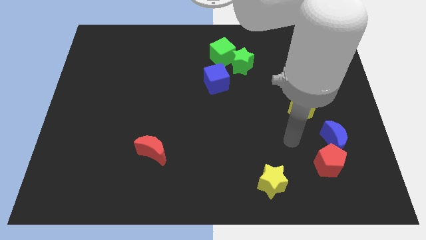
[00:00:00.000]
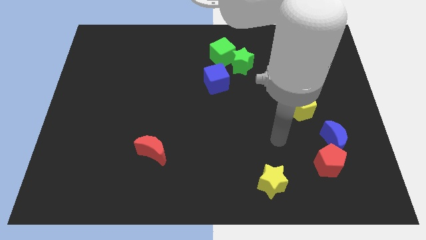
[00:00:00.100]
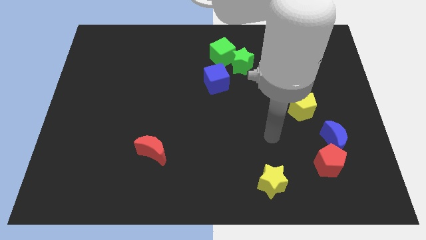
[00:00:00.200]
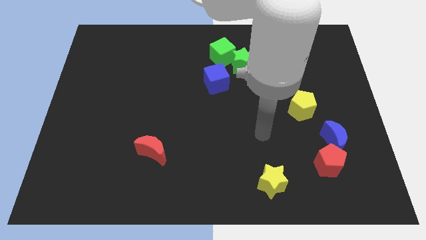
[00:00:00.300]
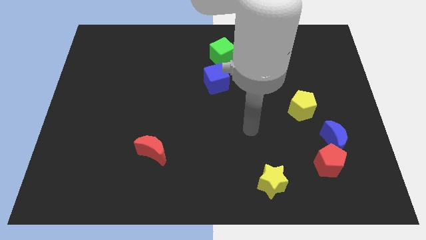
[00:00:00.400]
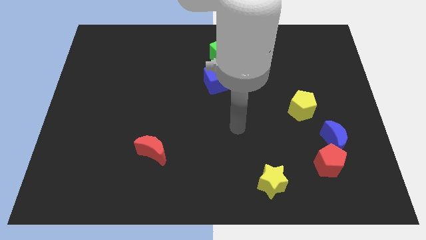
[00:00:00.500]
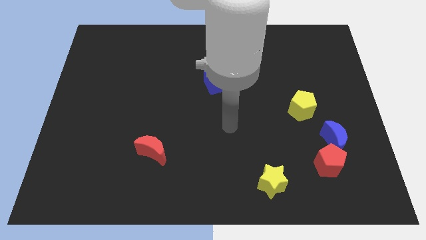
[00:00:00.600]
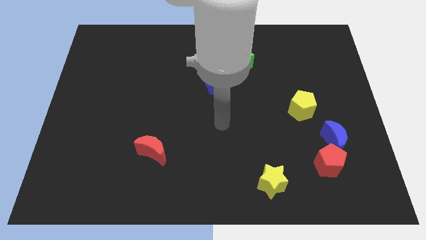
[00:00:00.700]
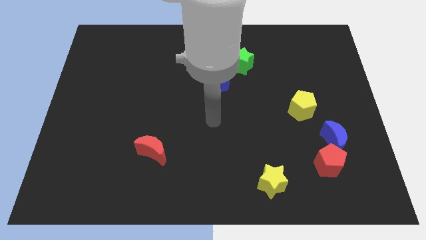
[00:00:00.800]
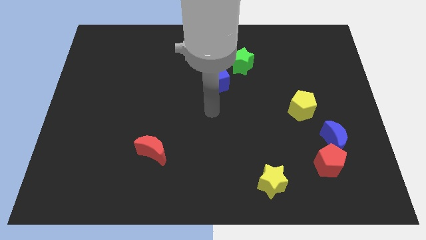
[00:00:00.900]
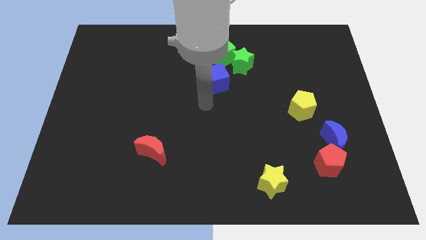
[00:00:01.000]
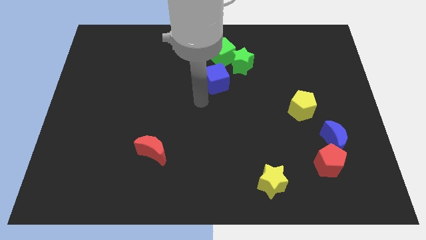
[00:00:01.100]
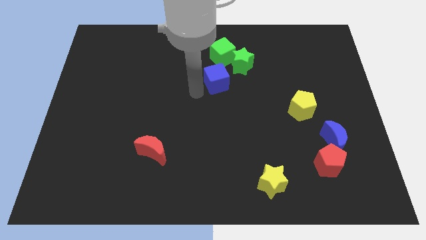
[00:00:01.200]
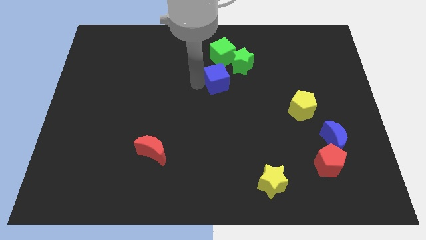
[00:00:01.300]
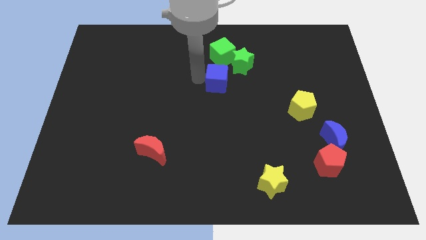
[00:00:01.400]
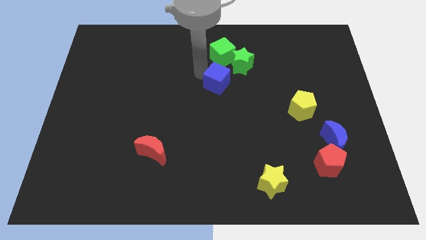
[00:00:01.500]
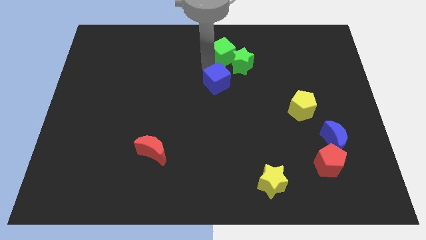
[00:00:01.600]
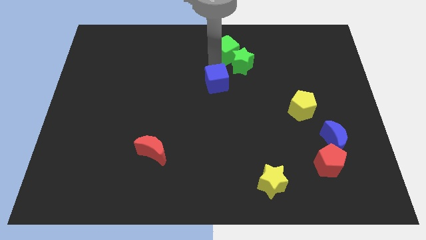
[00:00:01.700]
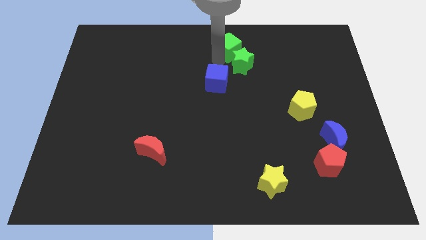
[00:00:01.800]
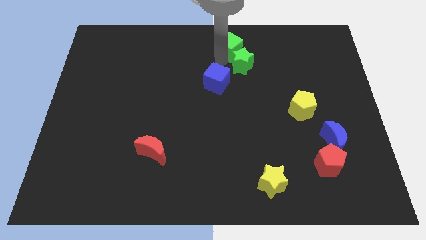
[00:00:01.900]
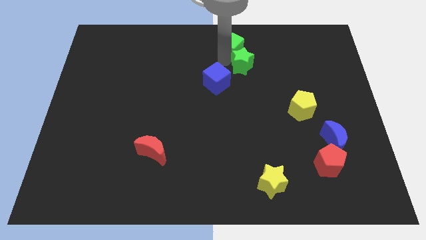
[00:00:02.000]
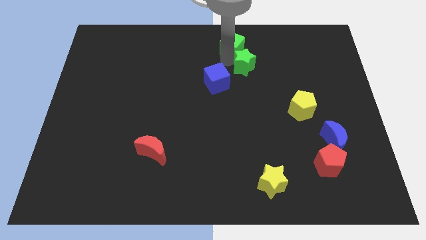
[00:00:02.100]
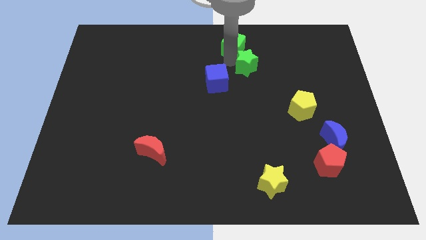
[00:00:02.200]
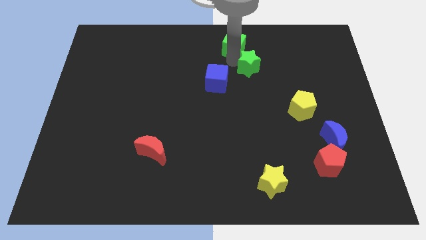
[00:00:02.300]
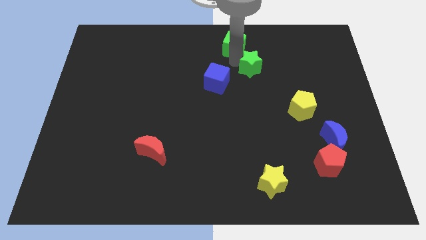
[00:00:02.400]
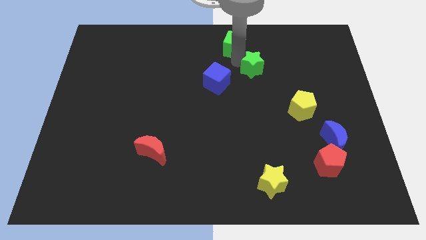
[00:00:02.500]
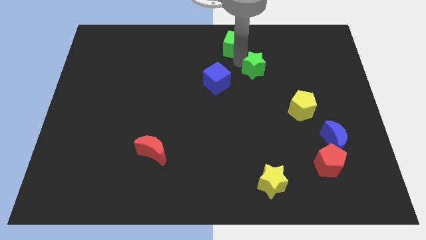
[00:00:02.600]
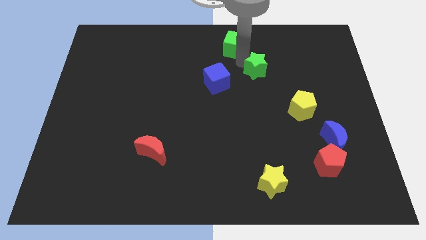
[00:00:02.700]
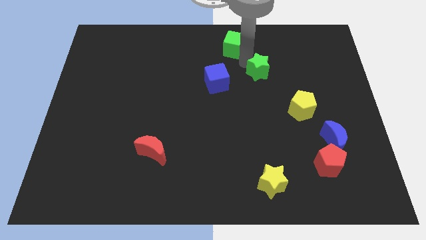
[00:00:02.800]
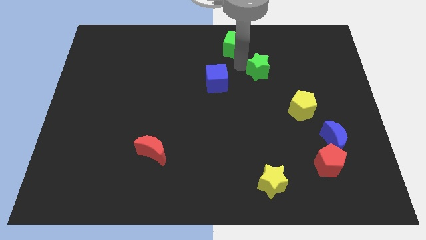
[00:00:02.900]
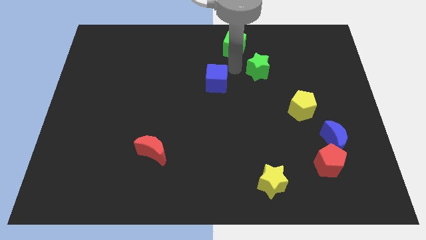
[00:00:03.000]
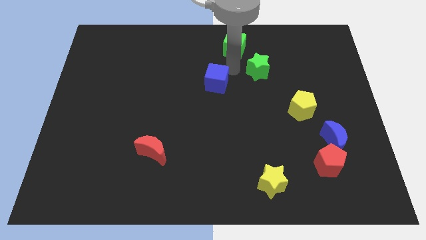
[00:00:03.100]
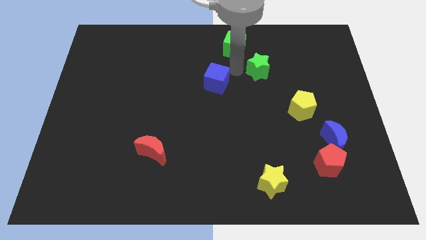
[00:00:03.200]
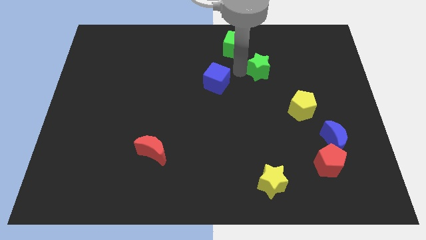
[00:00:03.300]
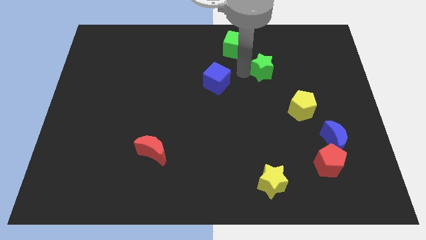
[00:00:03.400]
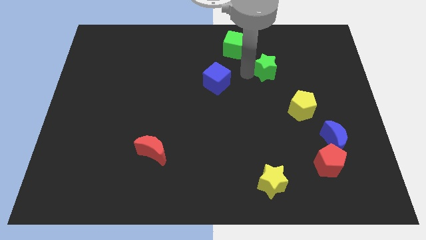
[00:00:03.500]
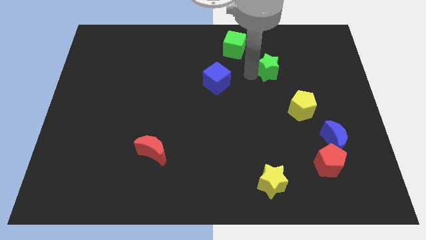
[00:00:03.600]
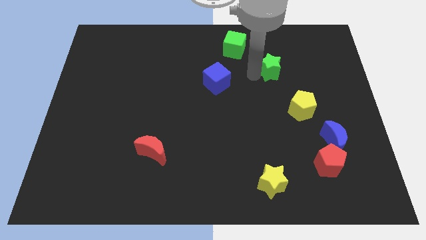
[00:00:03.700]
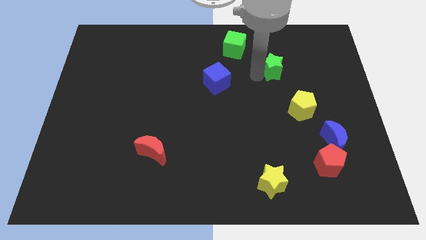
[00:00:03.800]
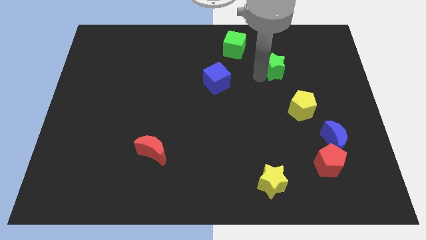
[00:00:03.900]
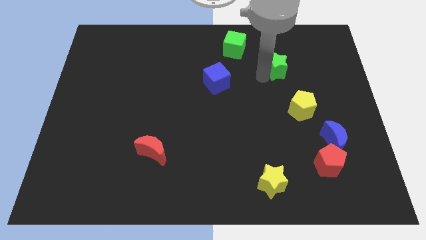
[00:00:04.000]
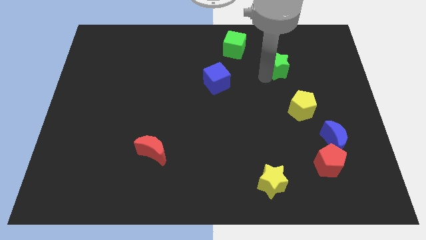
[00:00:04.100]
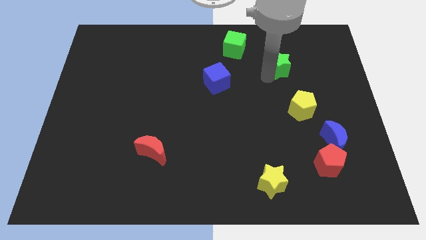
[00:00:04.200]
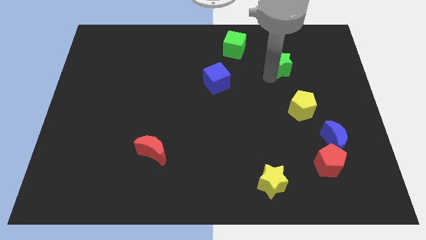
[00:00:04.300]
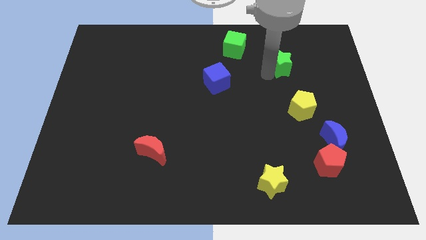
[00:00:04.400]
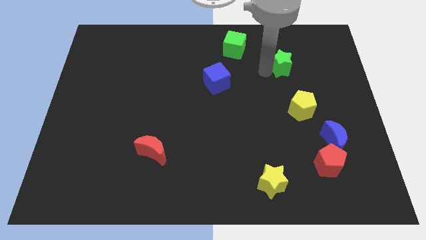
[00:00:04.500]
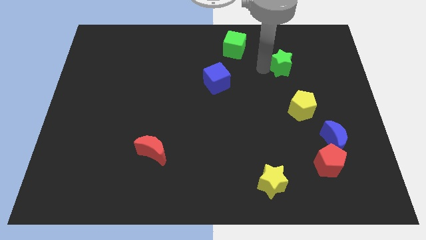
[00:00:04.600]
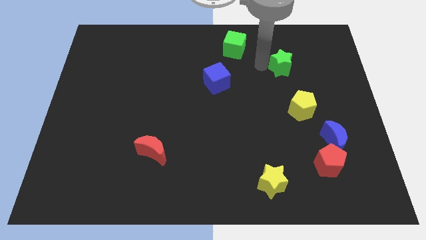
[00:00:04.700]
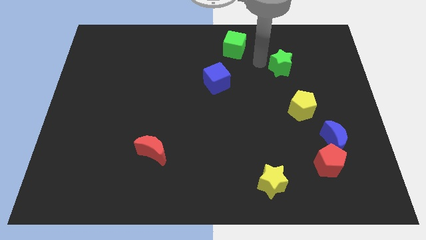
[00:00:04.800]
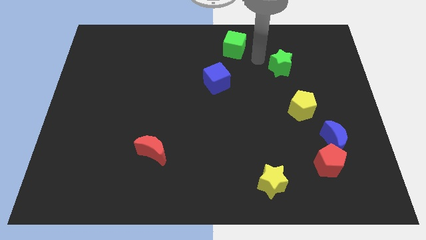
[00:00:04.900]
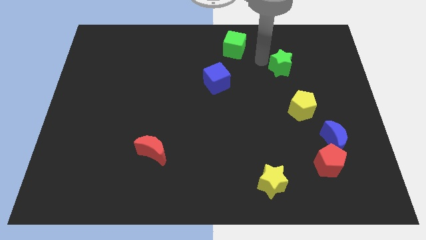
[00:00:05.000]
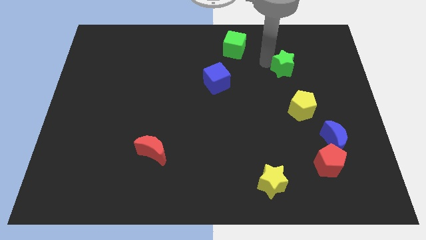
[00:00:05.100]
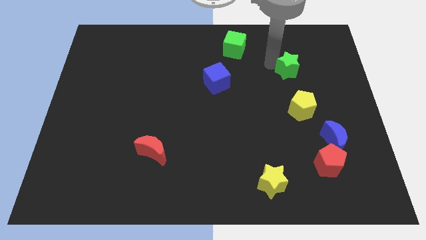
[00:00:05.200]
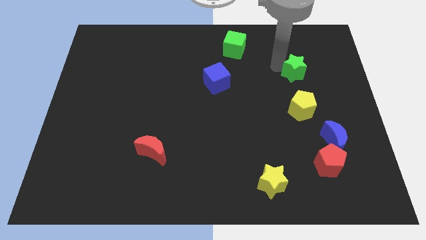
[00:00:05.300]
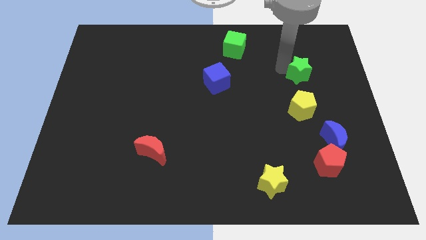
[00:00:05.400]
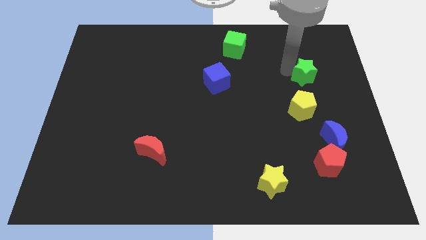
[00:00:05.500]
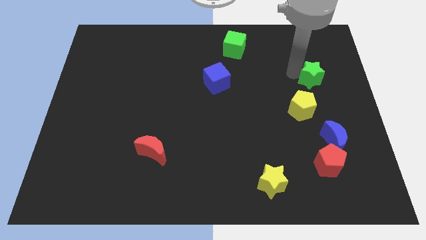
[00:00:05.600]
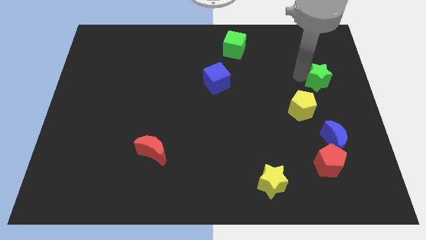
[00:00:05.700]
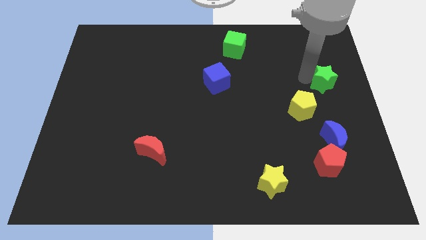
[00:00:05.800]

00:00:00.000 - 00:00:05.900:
move the green star to the right side

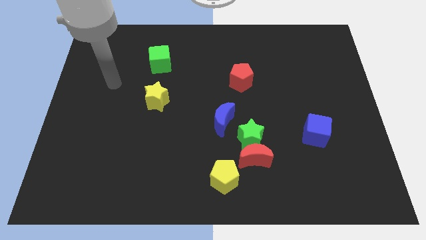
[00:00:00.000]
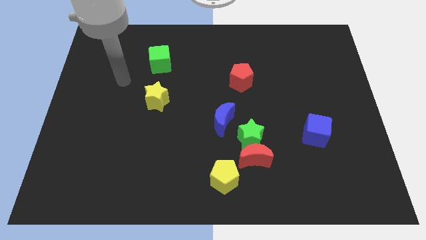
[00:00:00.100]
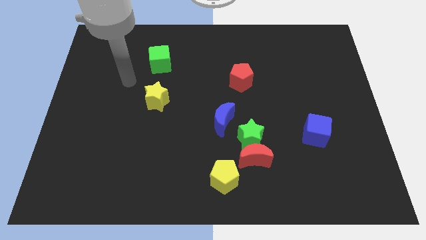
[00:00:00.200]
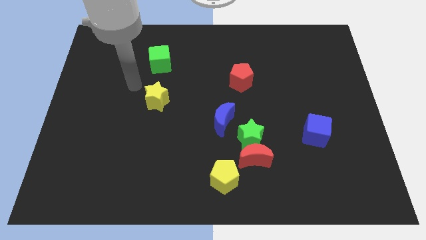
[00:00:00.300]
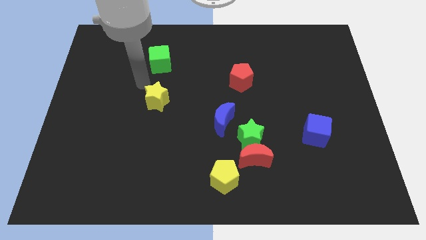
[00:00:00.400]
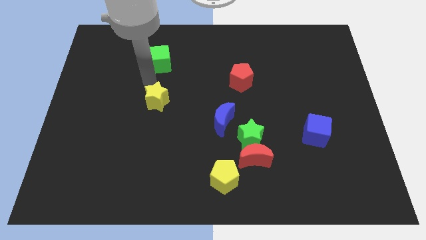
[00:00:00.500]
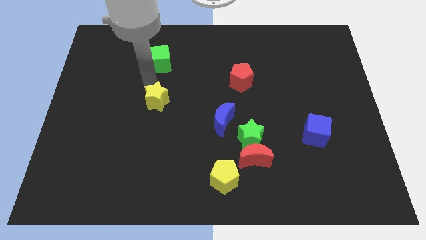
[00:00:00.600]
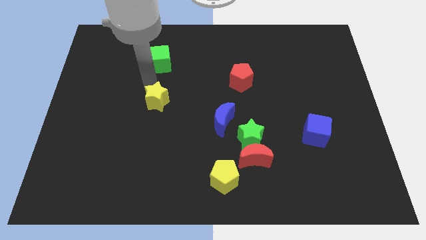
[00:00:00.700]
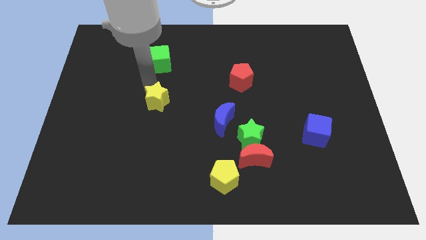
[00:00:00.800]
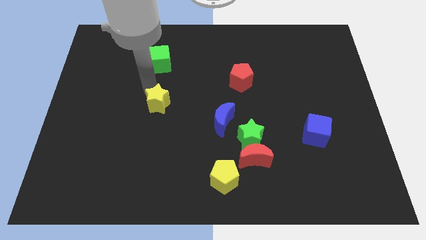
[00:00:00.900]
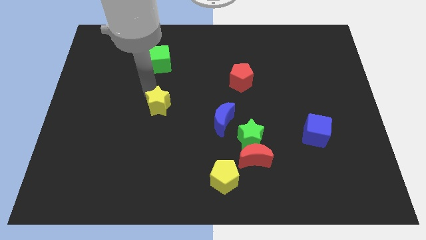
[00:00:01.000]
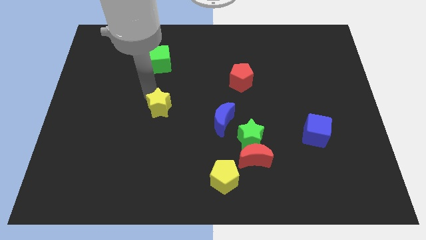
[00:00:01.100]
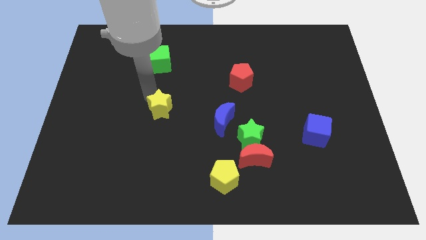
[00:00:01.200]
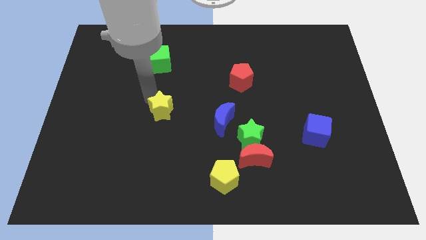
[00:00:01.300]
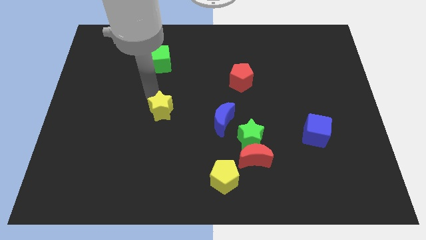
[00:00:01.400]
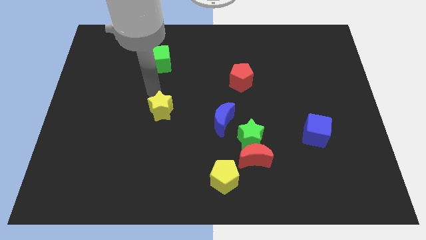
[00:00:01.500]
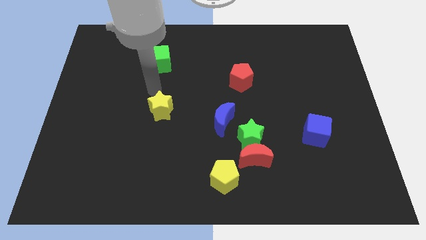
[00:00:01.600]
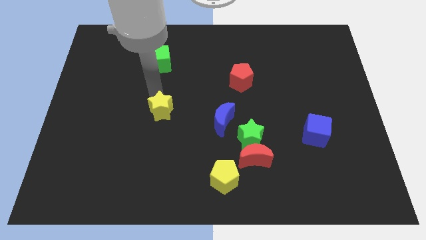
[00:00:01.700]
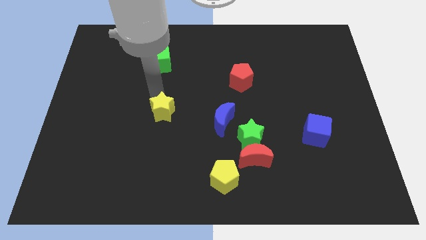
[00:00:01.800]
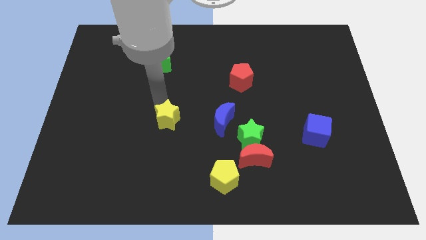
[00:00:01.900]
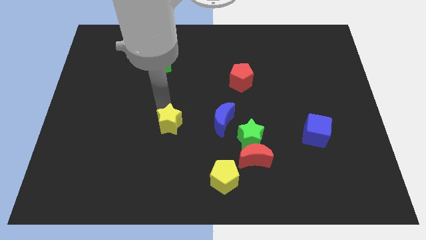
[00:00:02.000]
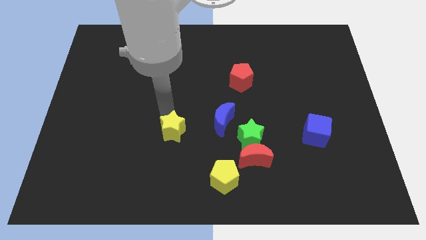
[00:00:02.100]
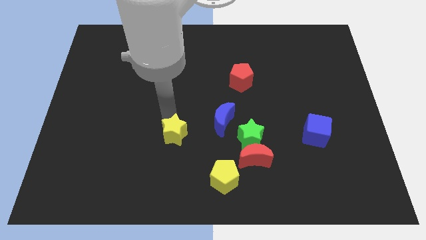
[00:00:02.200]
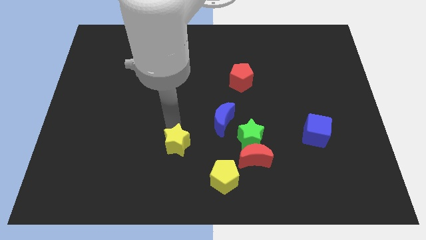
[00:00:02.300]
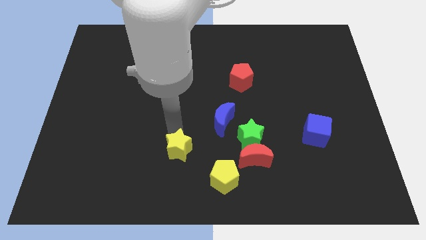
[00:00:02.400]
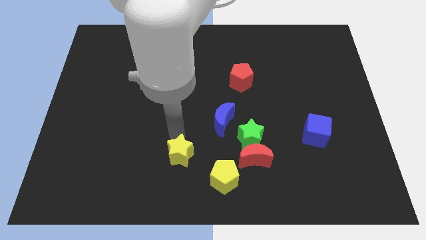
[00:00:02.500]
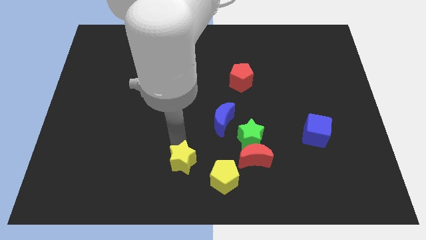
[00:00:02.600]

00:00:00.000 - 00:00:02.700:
move the yellow star to the bottom
